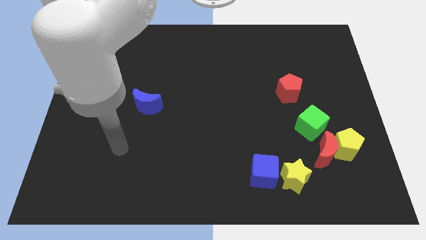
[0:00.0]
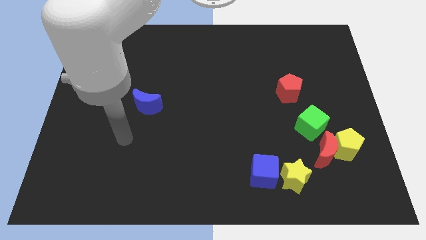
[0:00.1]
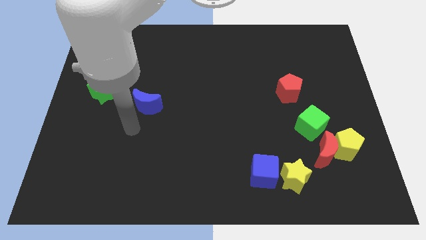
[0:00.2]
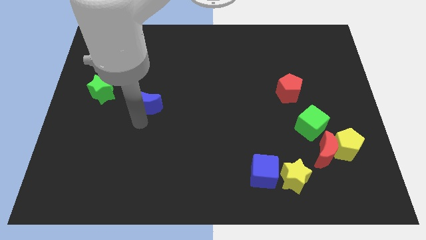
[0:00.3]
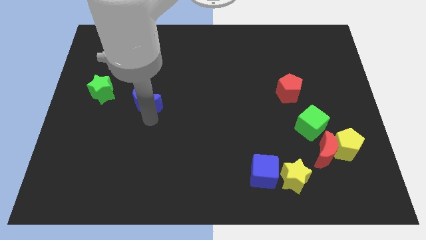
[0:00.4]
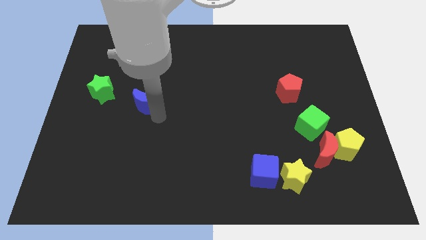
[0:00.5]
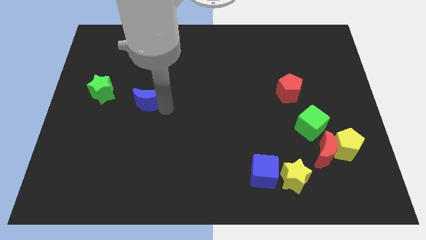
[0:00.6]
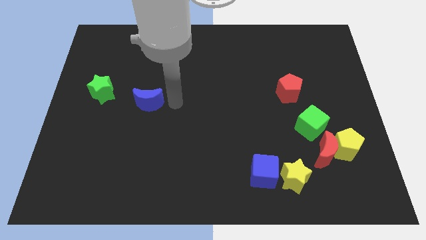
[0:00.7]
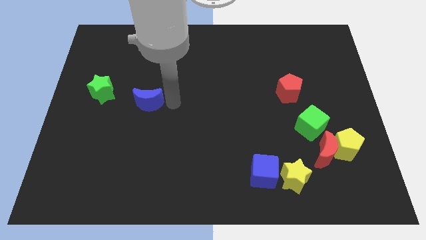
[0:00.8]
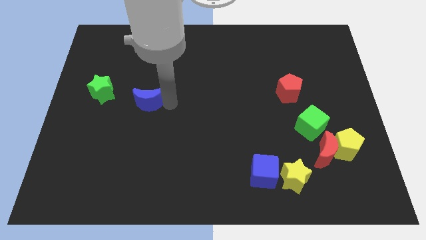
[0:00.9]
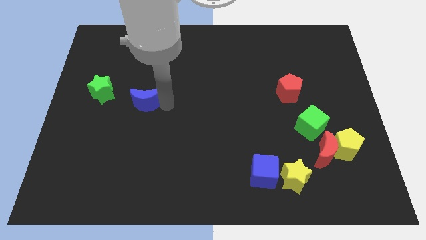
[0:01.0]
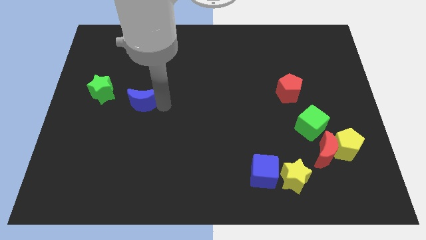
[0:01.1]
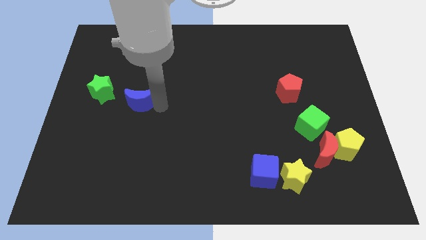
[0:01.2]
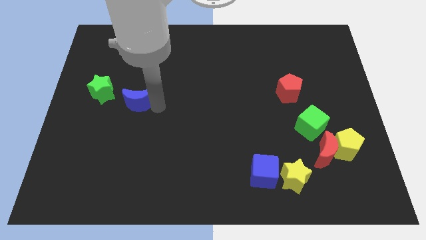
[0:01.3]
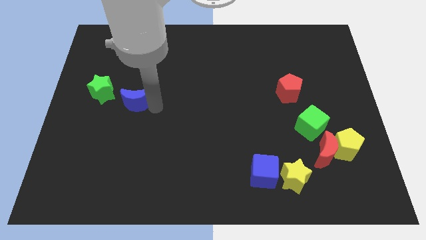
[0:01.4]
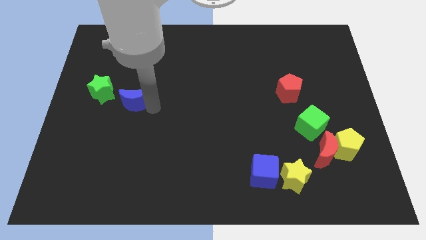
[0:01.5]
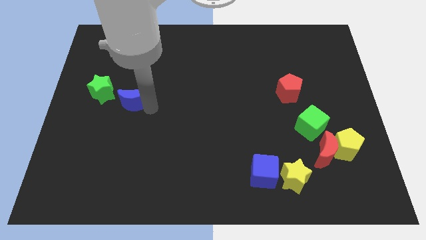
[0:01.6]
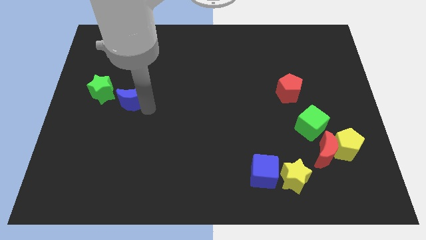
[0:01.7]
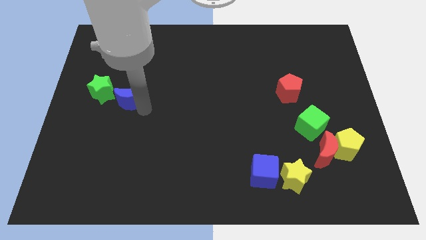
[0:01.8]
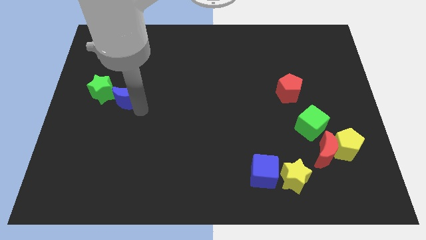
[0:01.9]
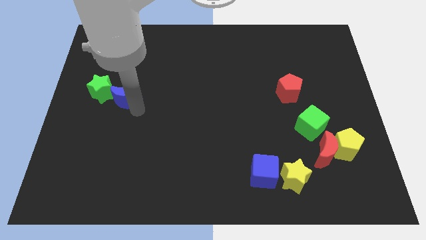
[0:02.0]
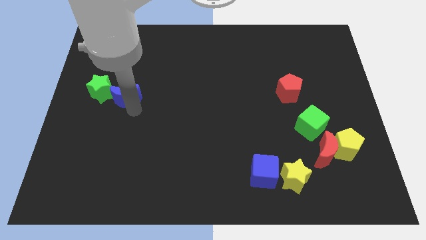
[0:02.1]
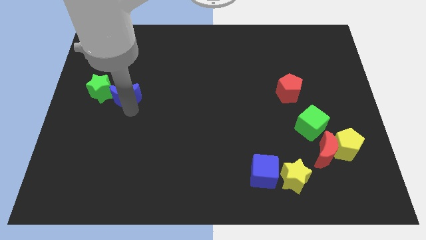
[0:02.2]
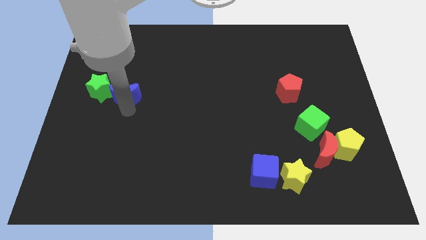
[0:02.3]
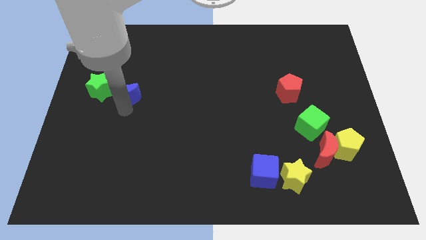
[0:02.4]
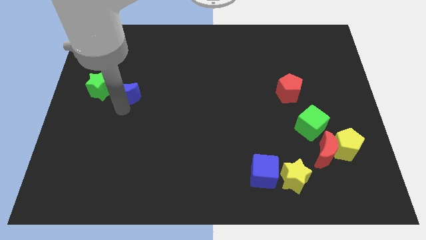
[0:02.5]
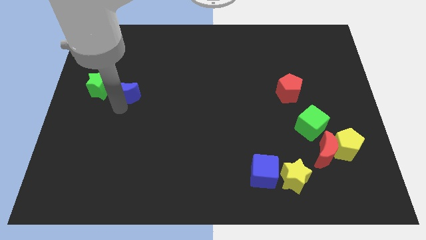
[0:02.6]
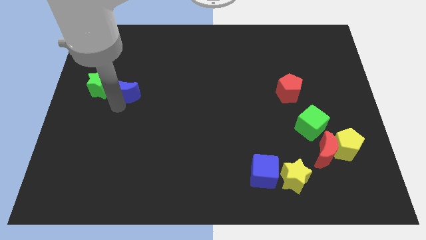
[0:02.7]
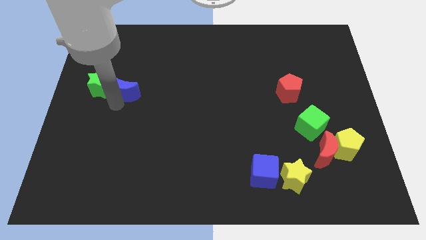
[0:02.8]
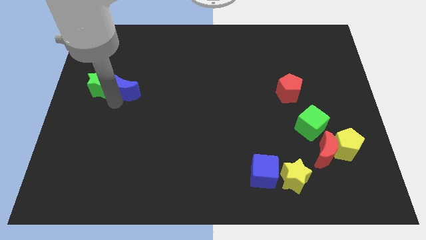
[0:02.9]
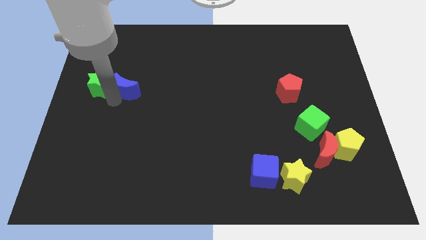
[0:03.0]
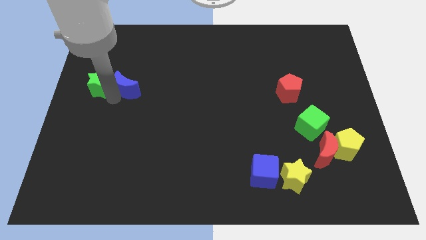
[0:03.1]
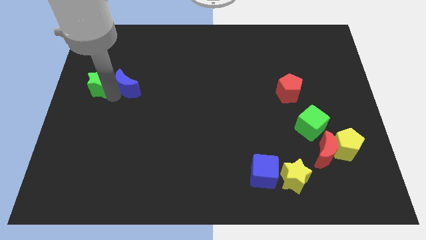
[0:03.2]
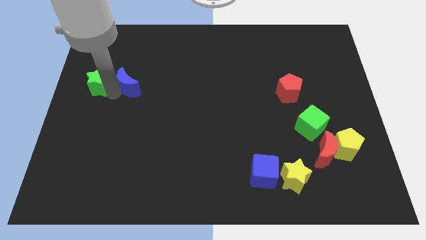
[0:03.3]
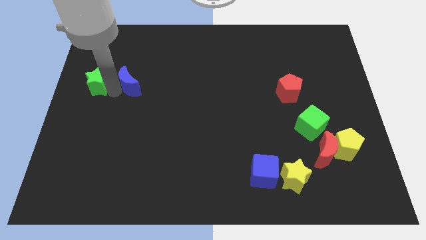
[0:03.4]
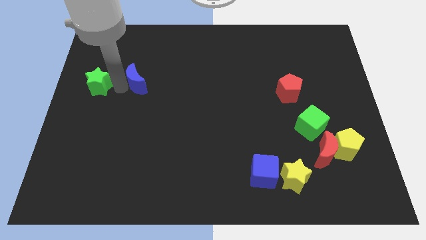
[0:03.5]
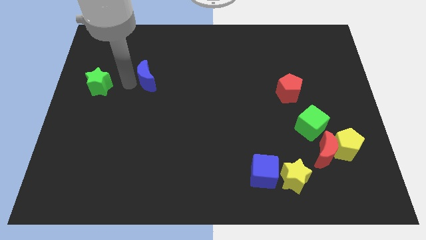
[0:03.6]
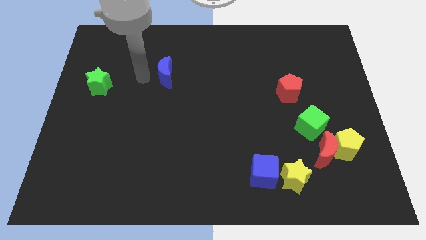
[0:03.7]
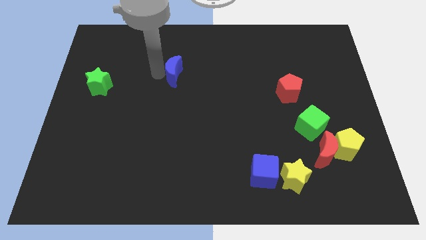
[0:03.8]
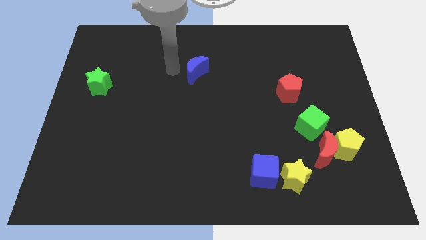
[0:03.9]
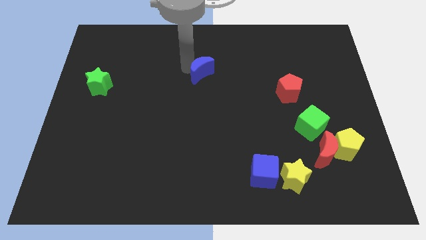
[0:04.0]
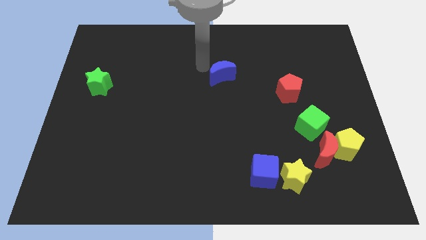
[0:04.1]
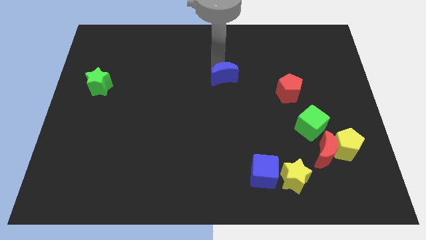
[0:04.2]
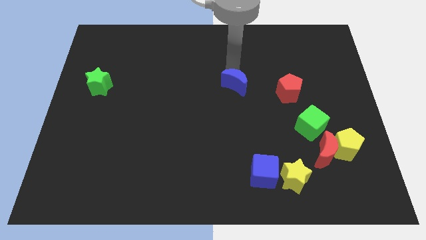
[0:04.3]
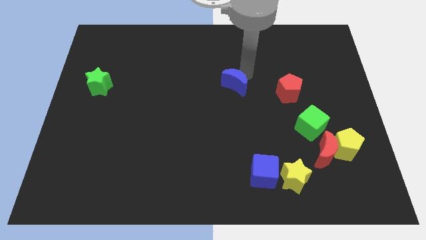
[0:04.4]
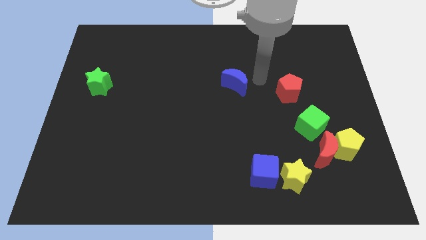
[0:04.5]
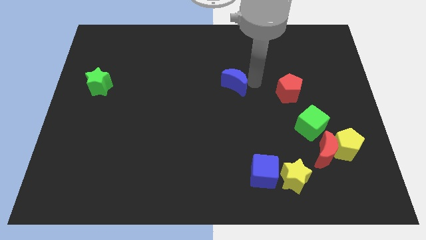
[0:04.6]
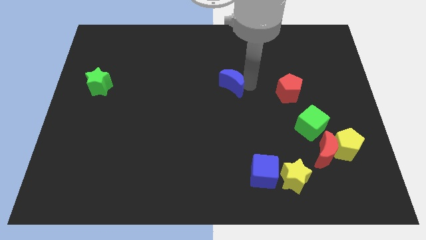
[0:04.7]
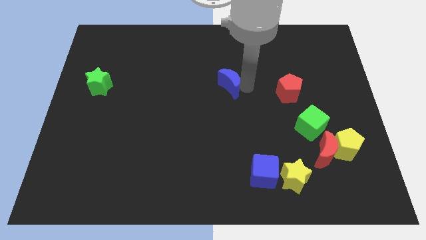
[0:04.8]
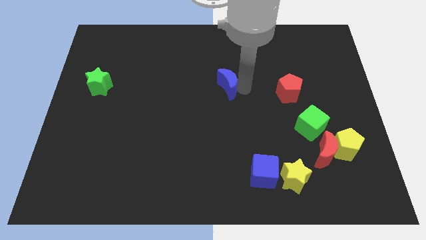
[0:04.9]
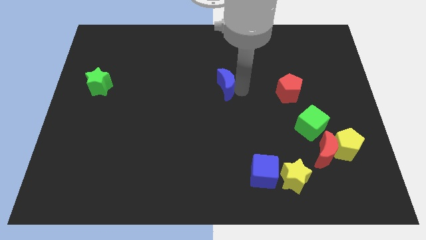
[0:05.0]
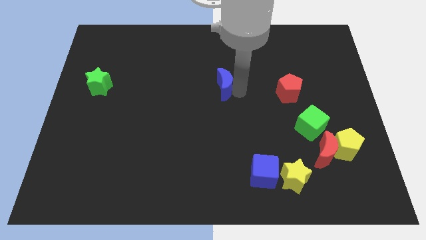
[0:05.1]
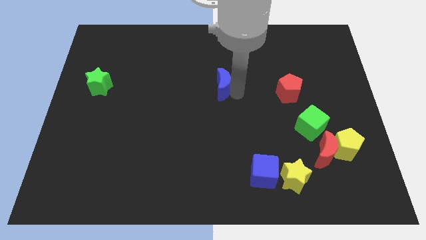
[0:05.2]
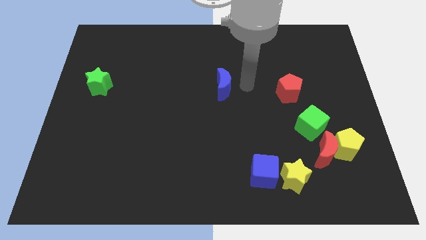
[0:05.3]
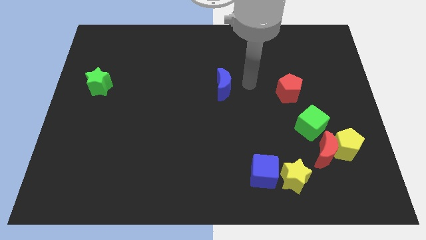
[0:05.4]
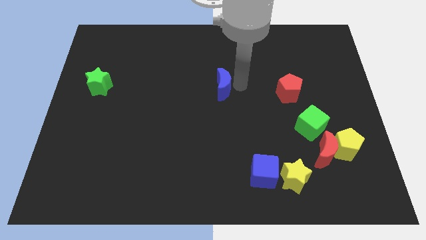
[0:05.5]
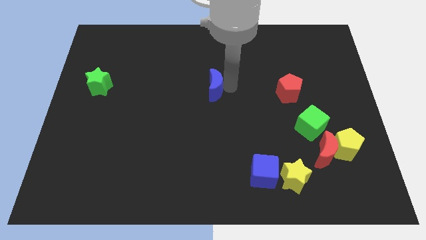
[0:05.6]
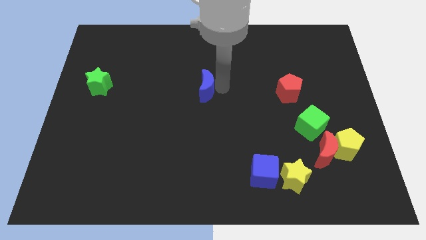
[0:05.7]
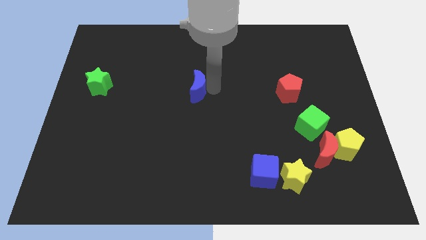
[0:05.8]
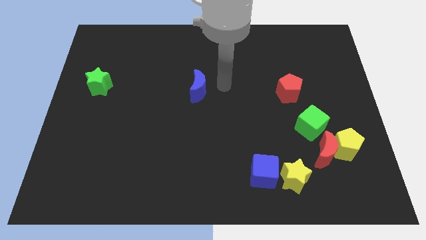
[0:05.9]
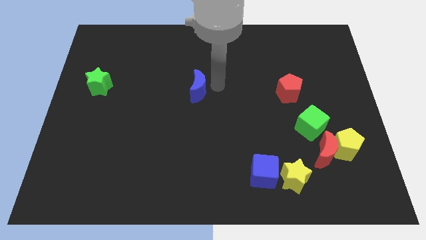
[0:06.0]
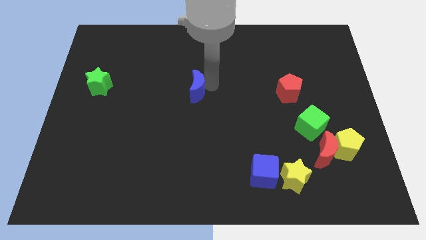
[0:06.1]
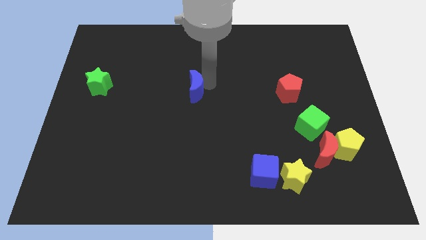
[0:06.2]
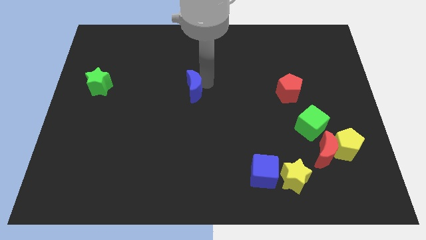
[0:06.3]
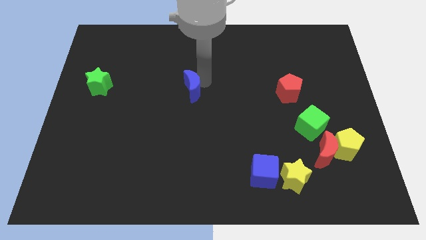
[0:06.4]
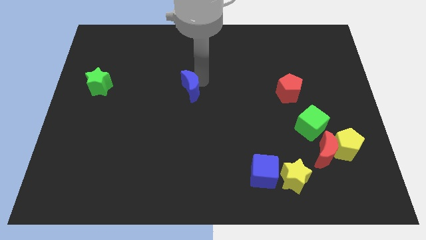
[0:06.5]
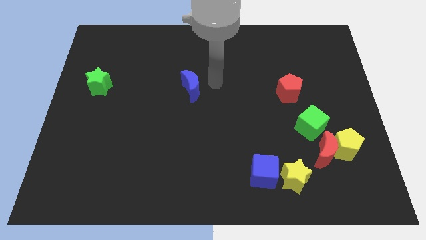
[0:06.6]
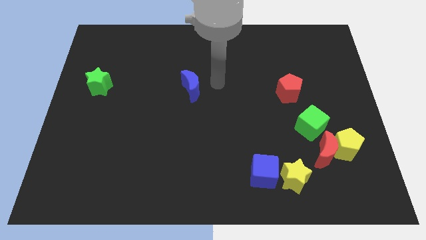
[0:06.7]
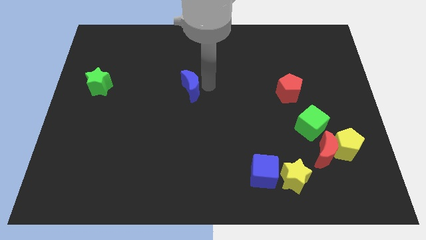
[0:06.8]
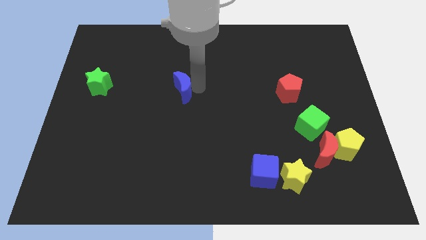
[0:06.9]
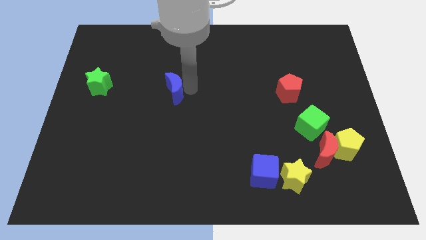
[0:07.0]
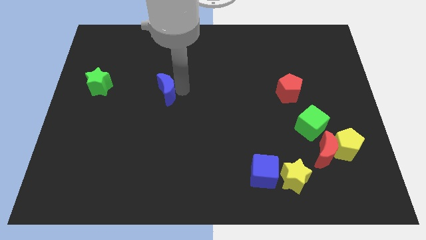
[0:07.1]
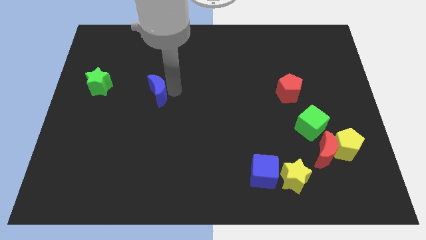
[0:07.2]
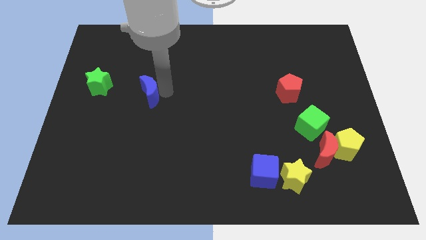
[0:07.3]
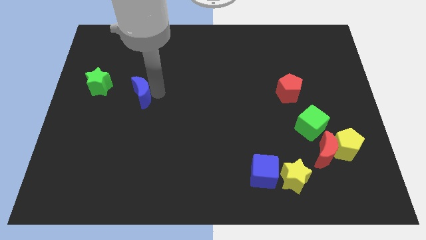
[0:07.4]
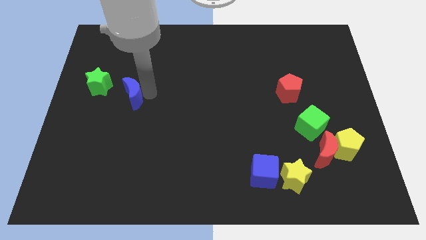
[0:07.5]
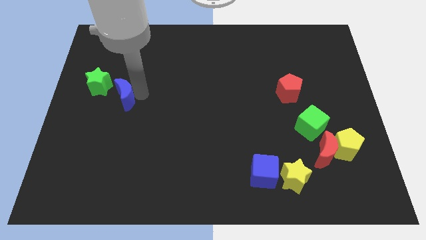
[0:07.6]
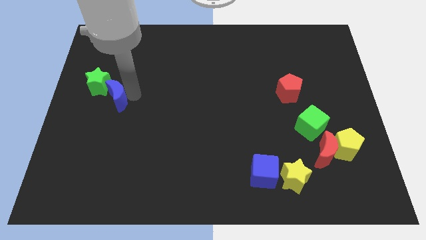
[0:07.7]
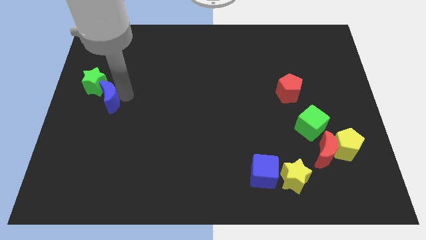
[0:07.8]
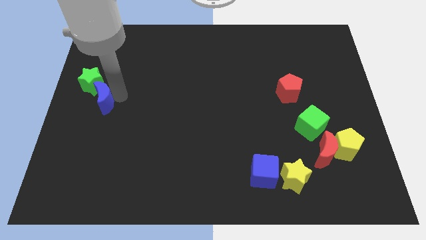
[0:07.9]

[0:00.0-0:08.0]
slide the blue moon to the left side of the board
